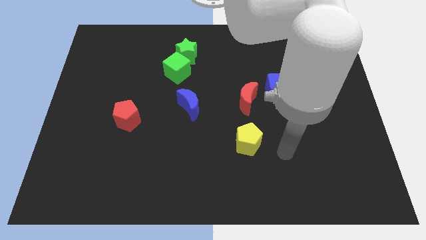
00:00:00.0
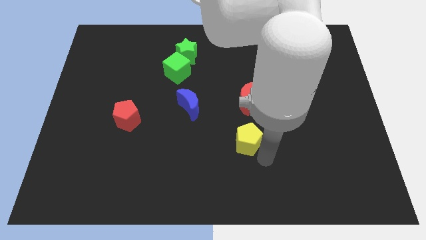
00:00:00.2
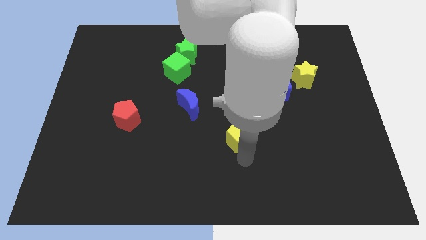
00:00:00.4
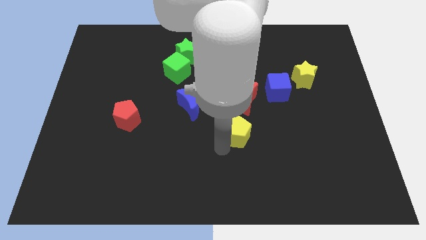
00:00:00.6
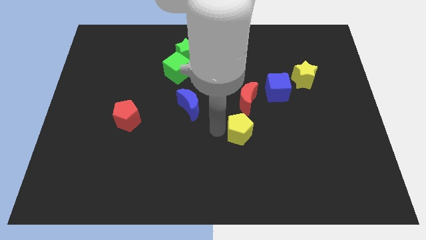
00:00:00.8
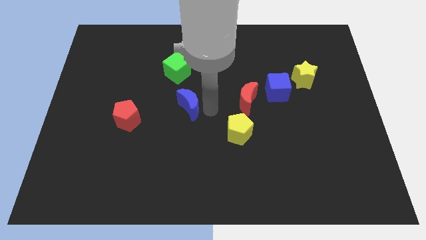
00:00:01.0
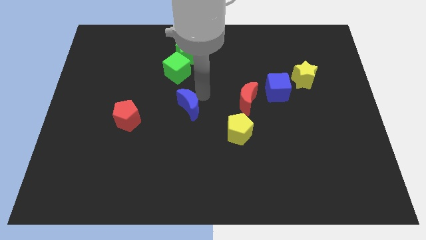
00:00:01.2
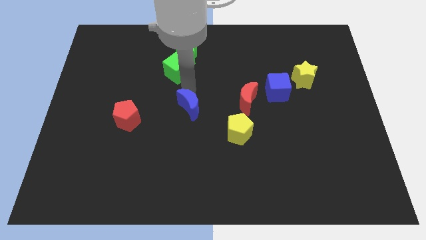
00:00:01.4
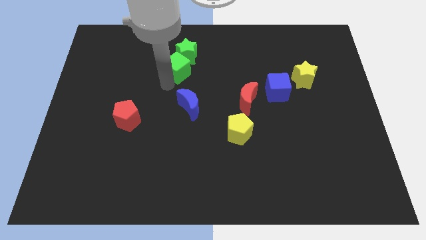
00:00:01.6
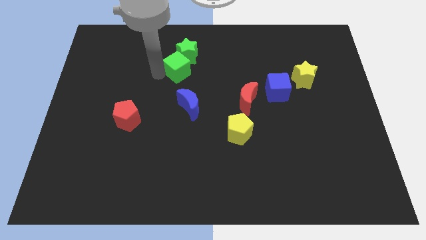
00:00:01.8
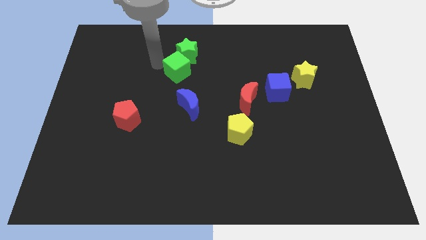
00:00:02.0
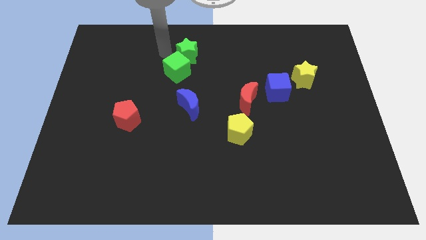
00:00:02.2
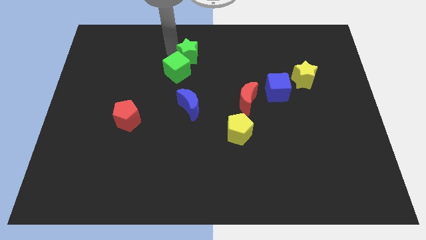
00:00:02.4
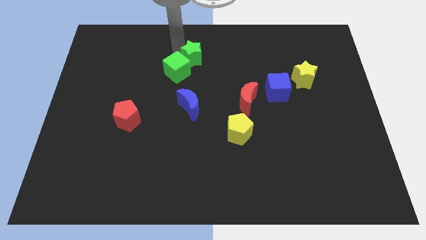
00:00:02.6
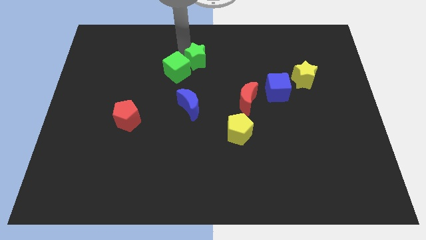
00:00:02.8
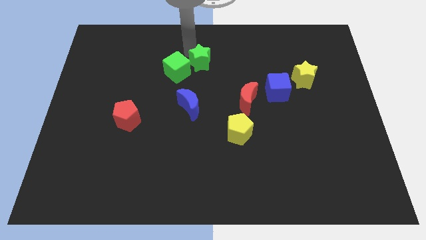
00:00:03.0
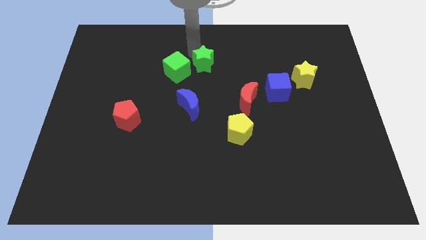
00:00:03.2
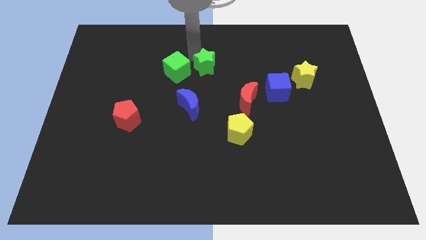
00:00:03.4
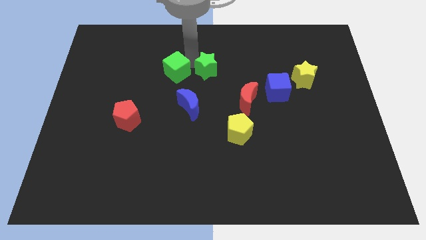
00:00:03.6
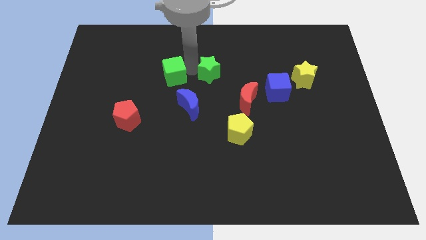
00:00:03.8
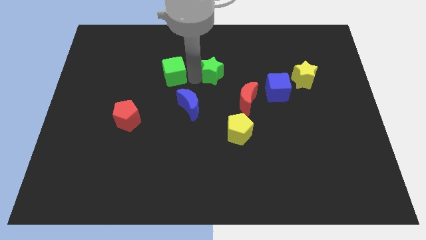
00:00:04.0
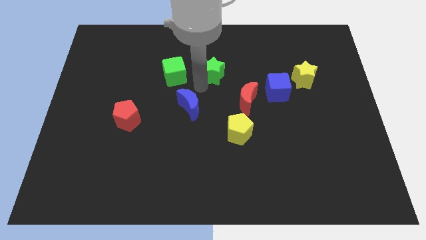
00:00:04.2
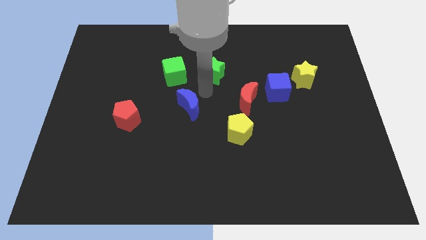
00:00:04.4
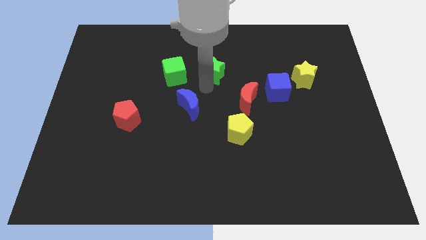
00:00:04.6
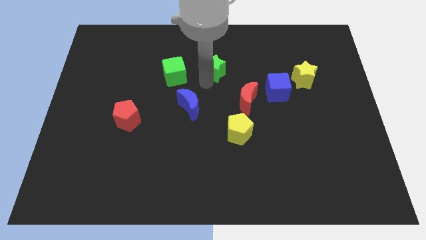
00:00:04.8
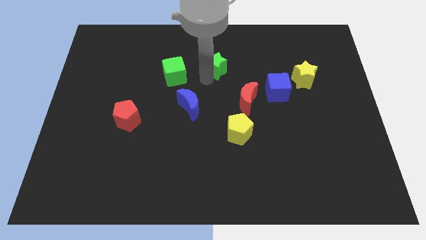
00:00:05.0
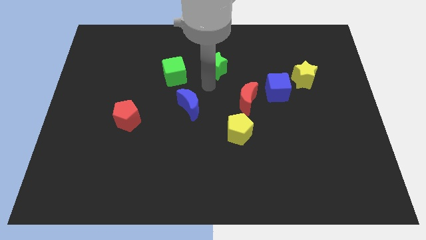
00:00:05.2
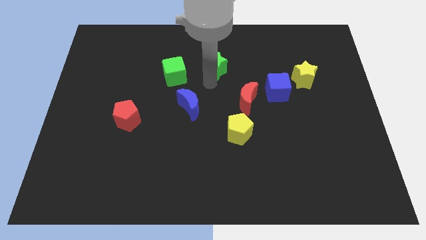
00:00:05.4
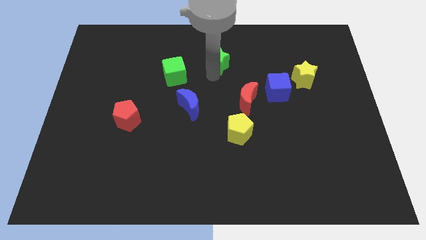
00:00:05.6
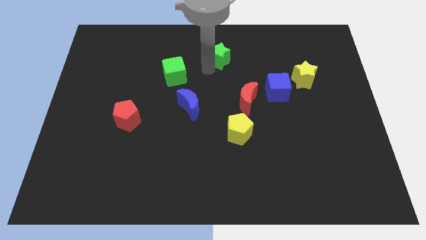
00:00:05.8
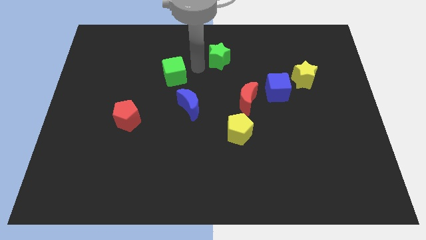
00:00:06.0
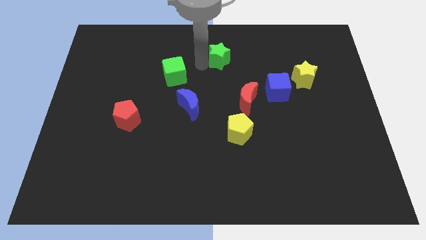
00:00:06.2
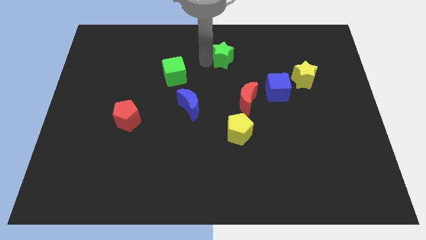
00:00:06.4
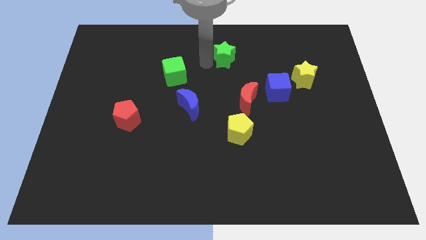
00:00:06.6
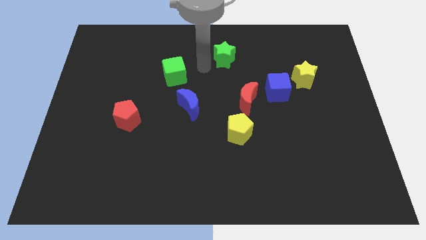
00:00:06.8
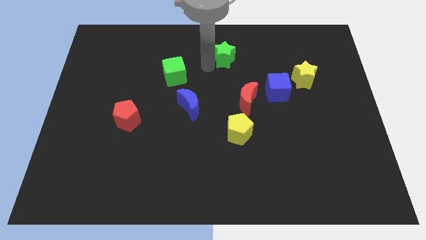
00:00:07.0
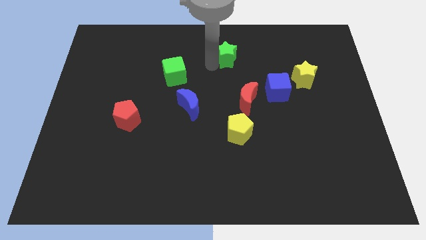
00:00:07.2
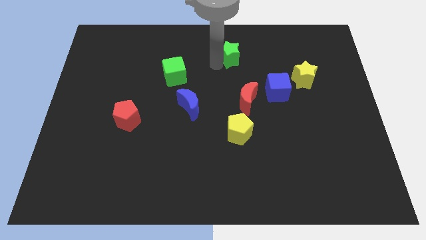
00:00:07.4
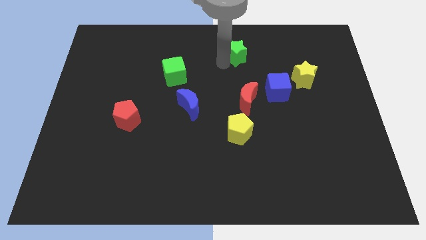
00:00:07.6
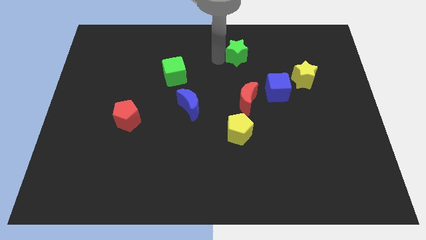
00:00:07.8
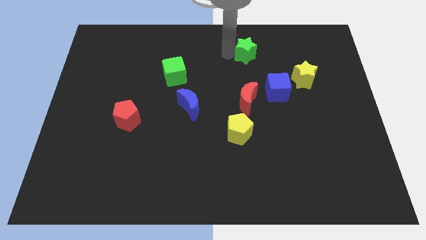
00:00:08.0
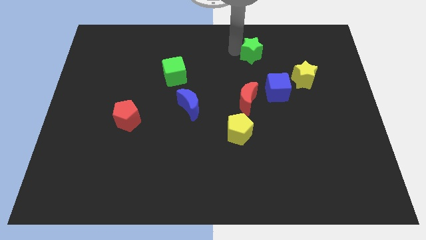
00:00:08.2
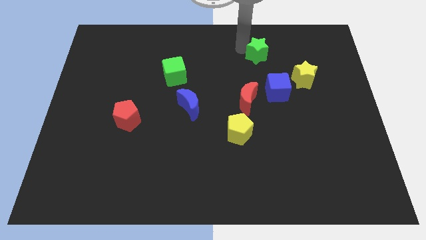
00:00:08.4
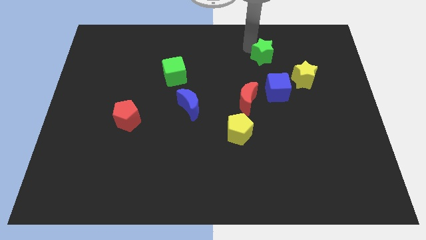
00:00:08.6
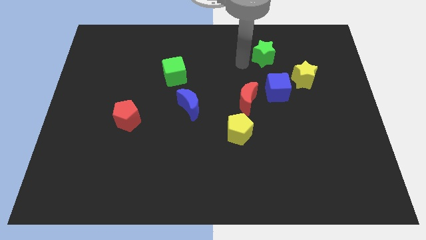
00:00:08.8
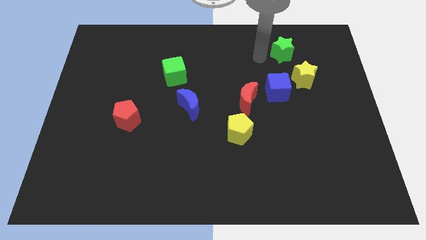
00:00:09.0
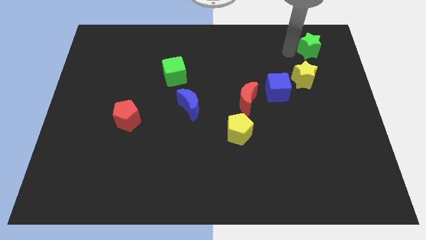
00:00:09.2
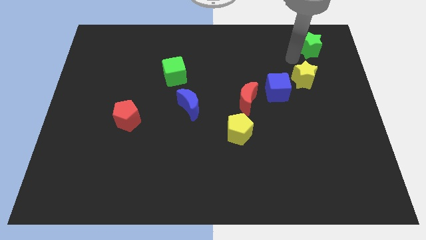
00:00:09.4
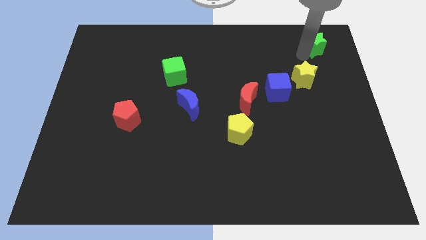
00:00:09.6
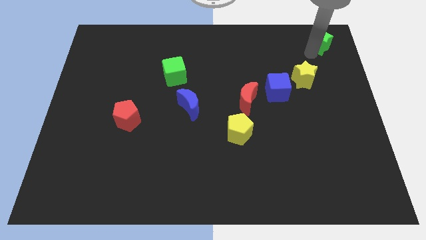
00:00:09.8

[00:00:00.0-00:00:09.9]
push the green star to the top right of the board

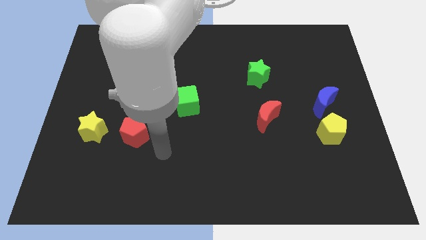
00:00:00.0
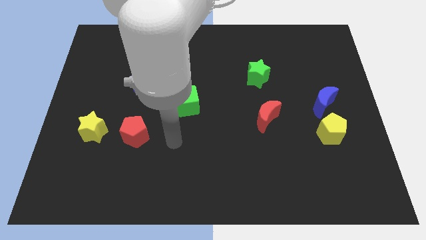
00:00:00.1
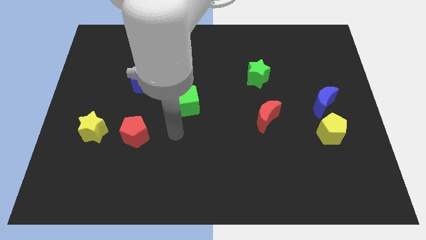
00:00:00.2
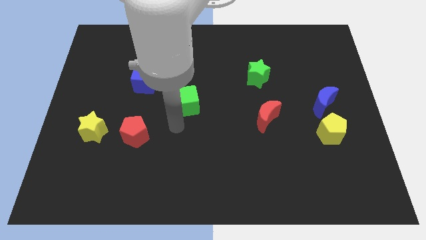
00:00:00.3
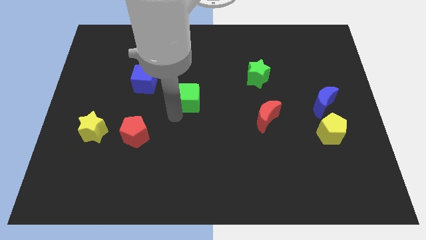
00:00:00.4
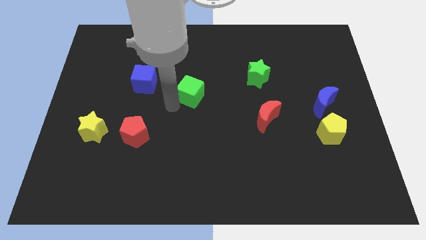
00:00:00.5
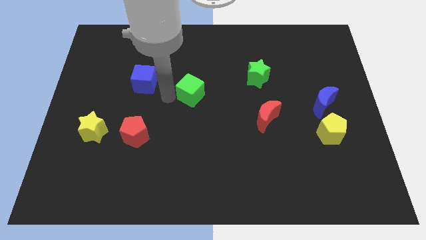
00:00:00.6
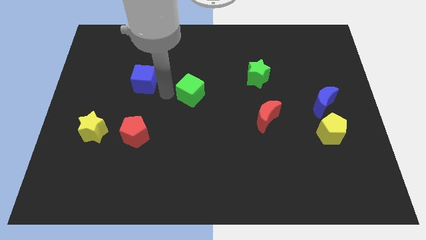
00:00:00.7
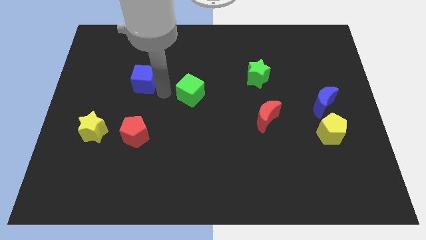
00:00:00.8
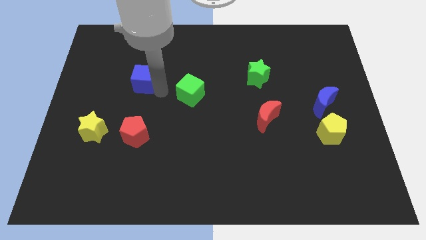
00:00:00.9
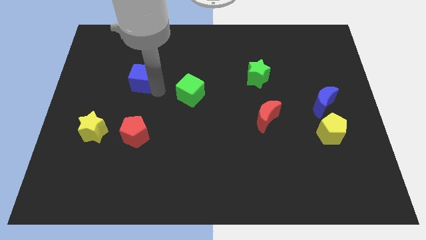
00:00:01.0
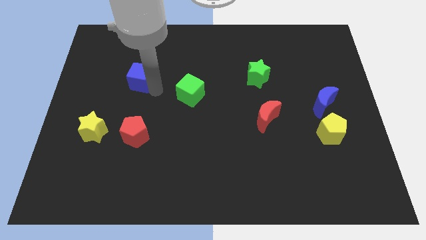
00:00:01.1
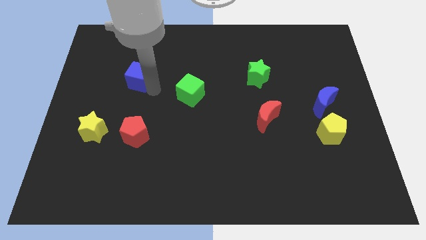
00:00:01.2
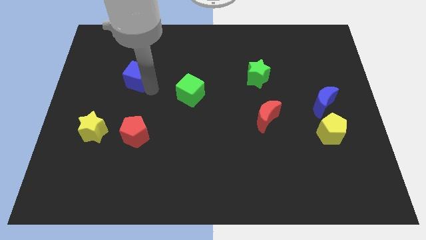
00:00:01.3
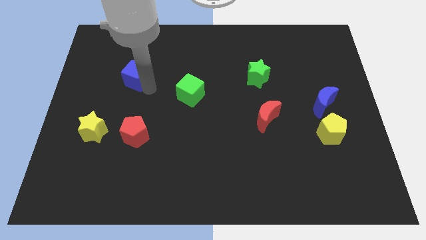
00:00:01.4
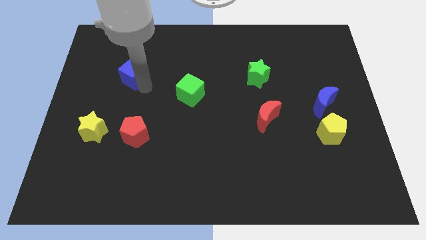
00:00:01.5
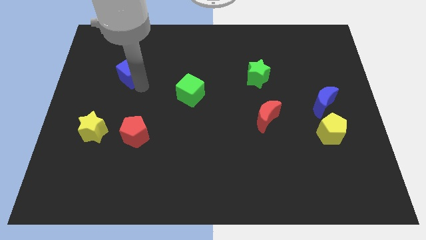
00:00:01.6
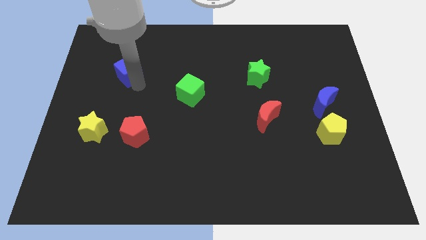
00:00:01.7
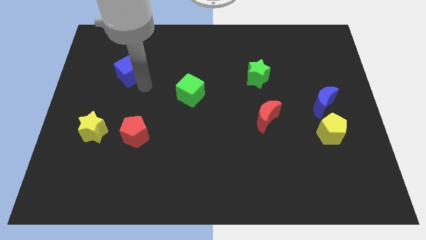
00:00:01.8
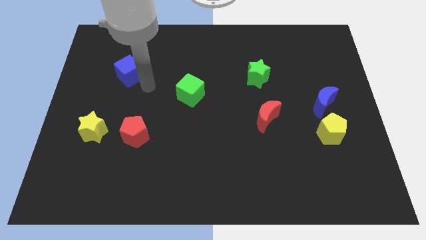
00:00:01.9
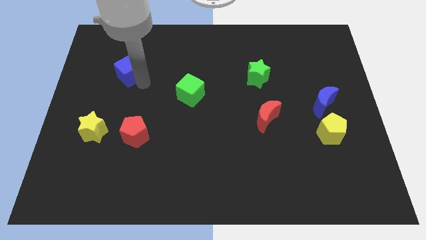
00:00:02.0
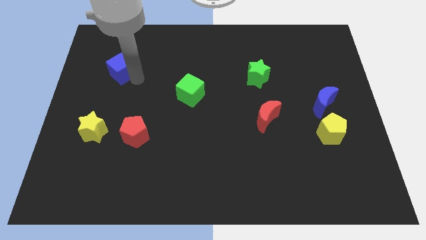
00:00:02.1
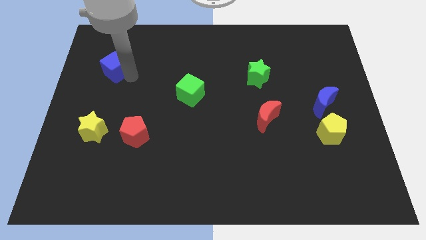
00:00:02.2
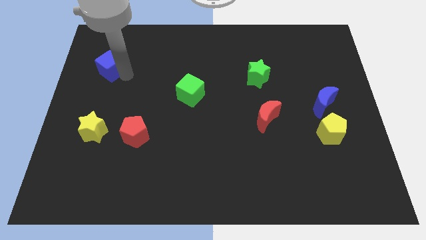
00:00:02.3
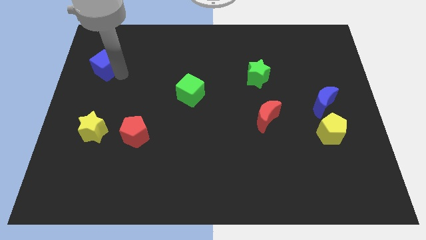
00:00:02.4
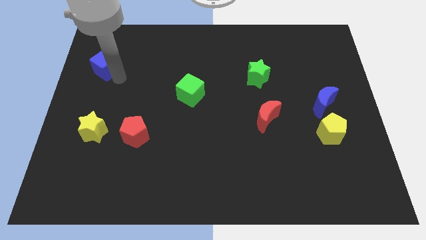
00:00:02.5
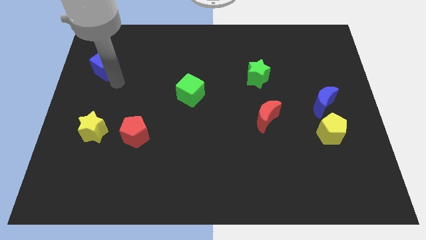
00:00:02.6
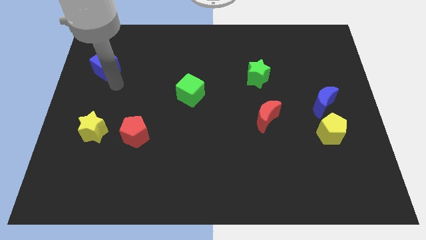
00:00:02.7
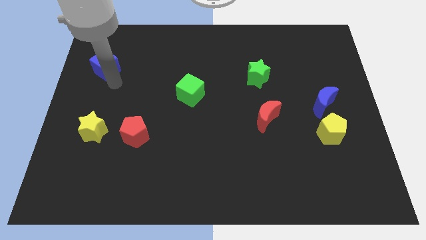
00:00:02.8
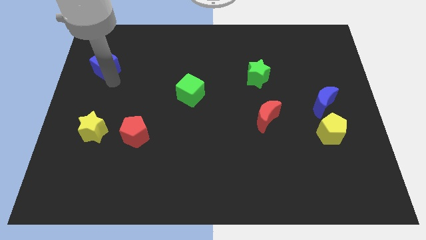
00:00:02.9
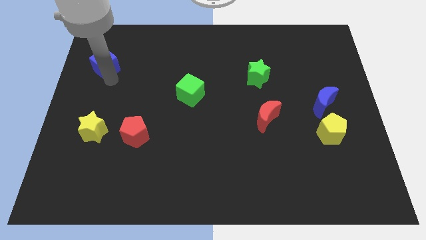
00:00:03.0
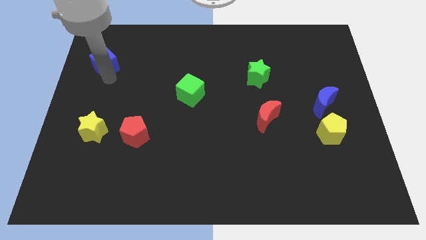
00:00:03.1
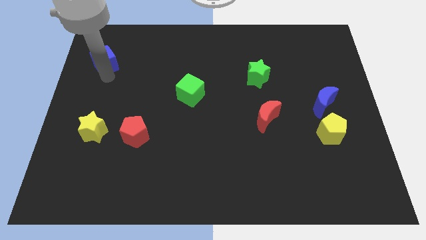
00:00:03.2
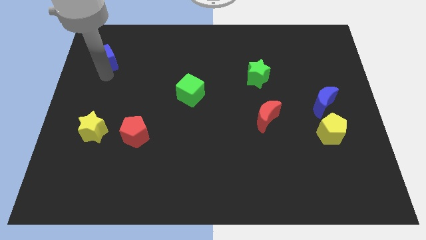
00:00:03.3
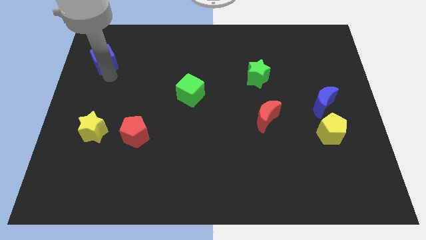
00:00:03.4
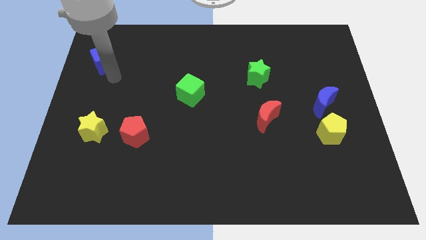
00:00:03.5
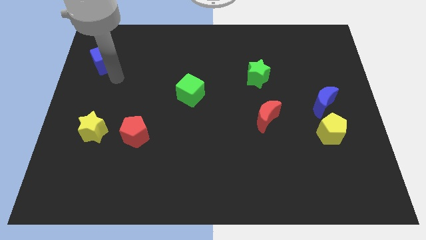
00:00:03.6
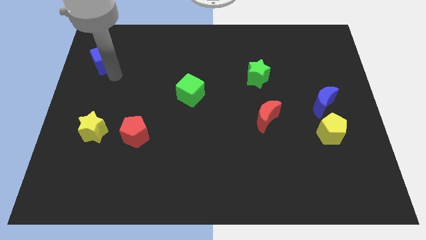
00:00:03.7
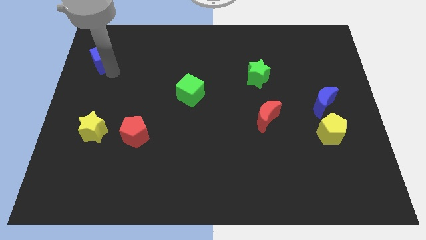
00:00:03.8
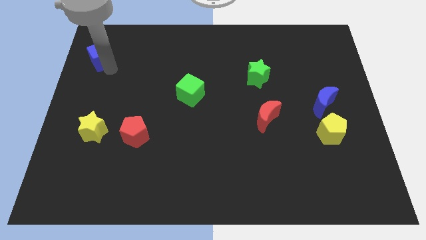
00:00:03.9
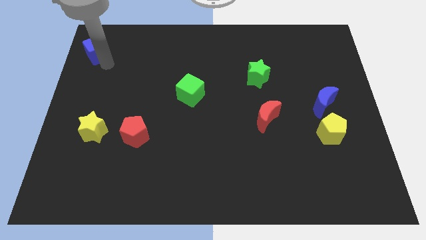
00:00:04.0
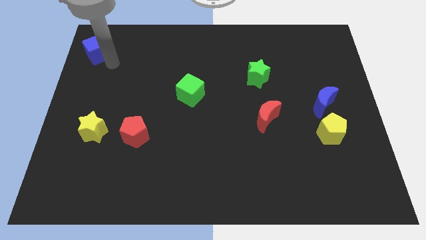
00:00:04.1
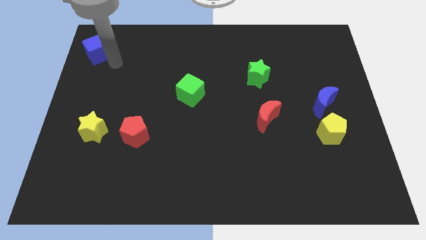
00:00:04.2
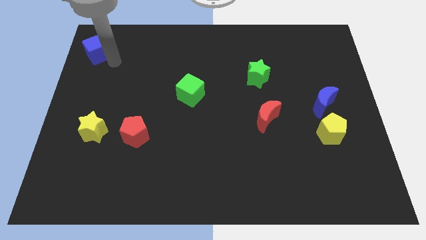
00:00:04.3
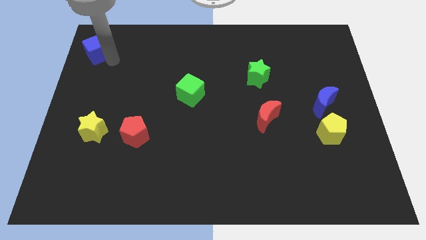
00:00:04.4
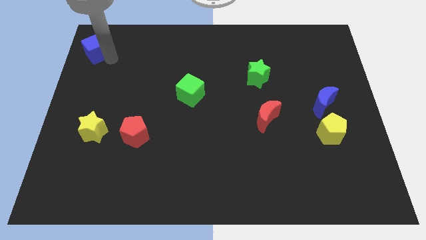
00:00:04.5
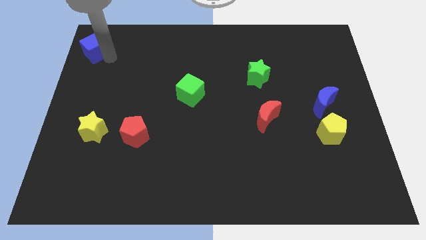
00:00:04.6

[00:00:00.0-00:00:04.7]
push the blue cube to the upper left corner
